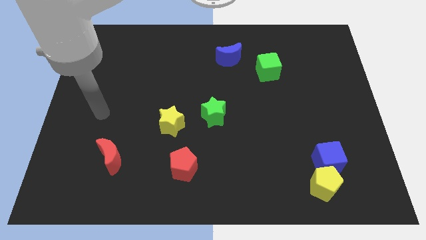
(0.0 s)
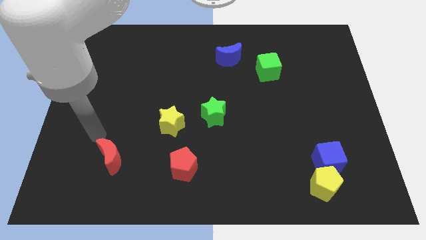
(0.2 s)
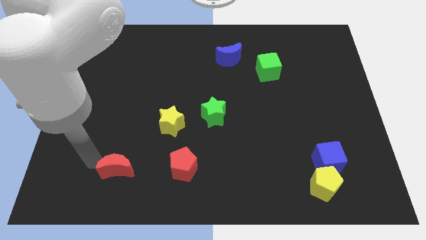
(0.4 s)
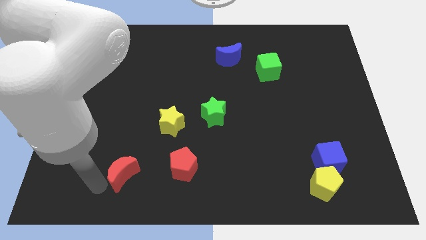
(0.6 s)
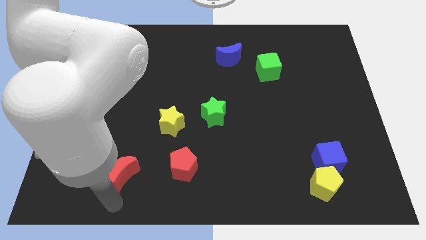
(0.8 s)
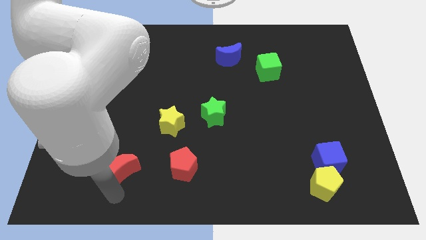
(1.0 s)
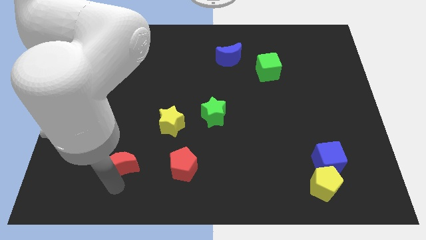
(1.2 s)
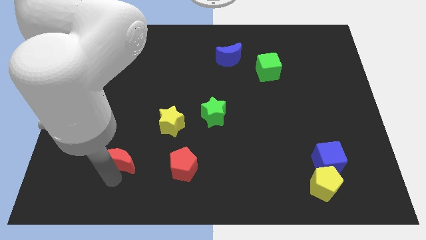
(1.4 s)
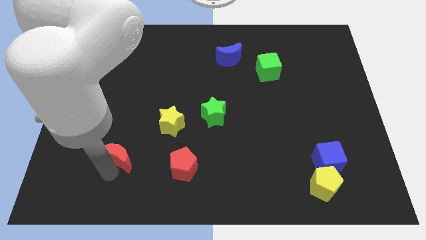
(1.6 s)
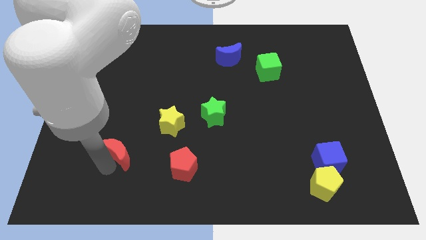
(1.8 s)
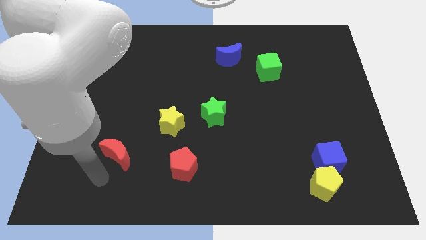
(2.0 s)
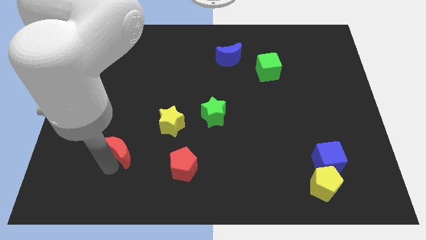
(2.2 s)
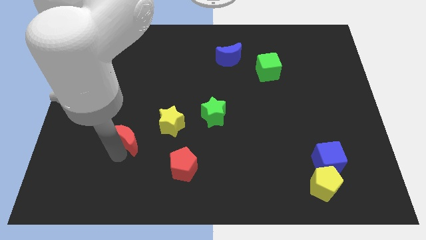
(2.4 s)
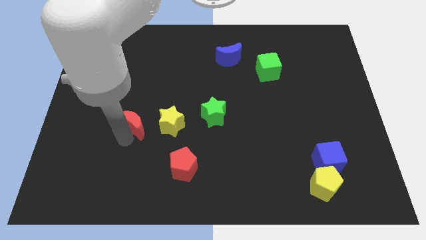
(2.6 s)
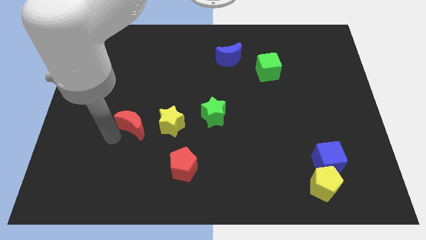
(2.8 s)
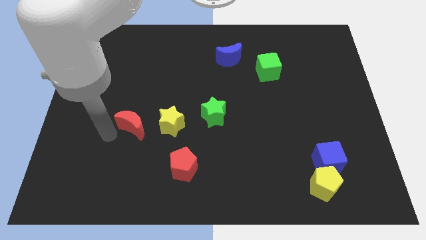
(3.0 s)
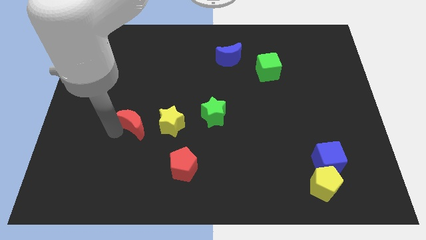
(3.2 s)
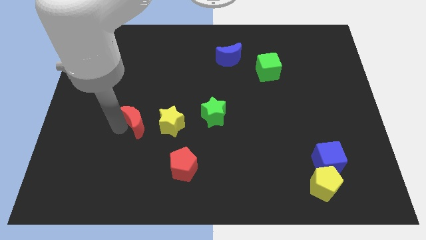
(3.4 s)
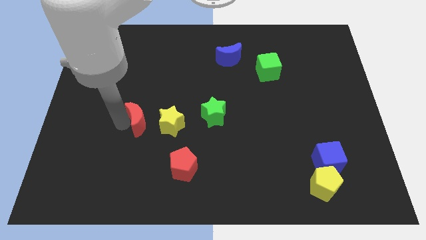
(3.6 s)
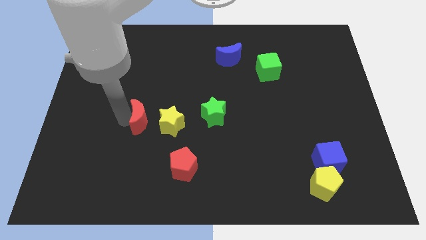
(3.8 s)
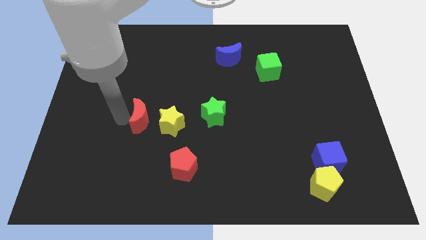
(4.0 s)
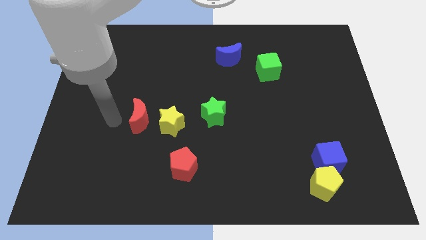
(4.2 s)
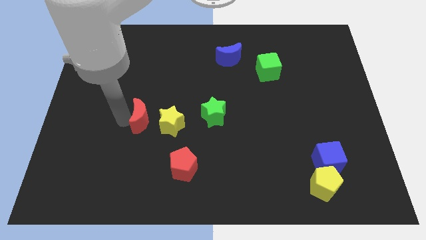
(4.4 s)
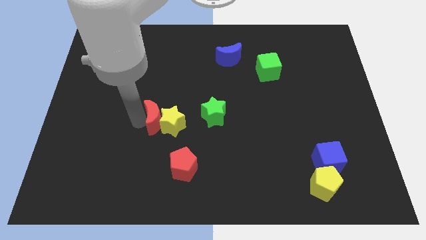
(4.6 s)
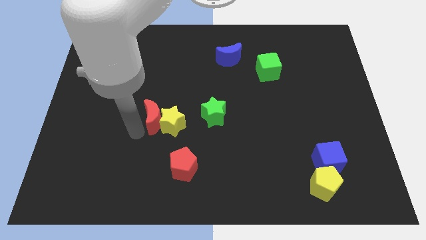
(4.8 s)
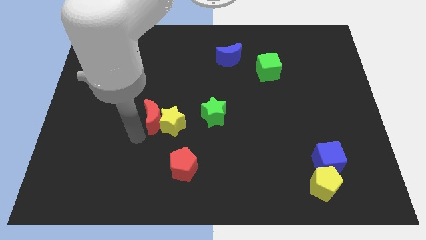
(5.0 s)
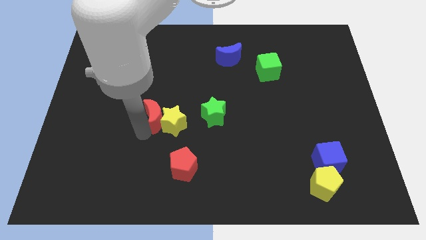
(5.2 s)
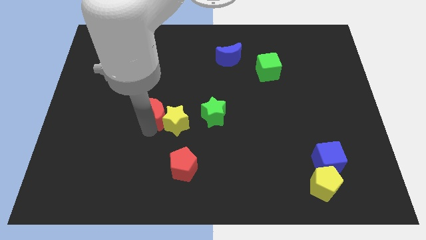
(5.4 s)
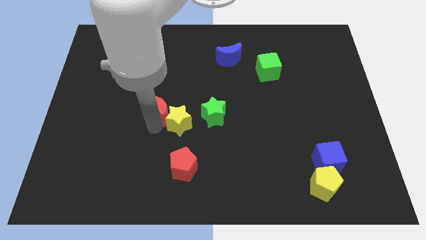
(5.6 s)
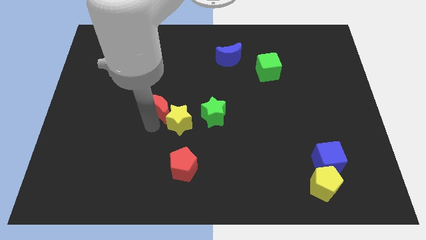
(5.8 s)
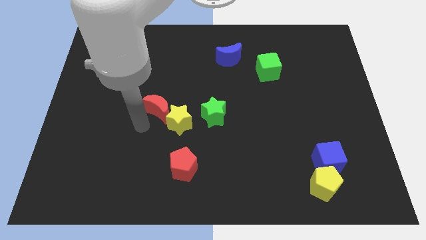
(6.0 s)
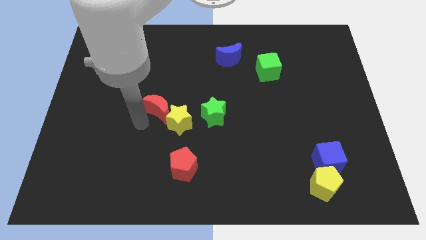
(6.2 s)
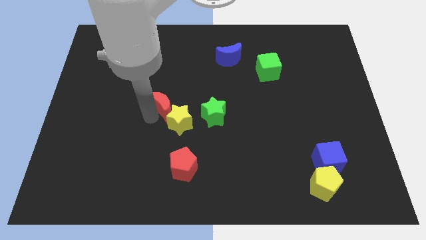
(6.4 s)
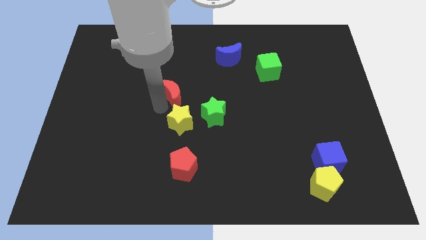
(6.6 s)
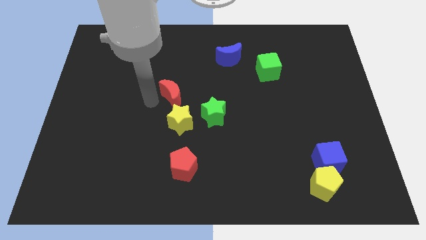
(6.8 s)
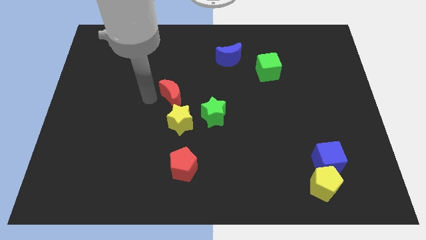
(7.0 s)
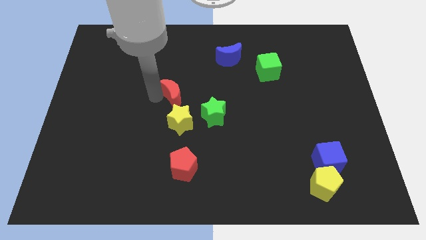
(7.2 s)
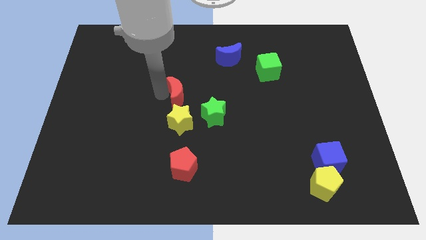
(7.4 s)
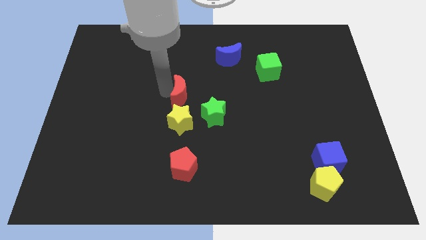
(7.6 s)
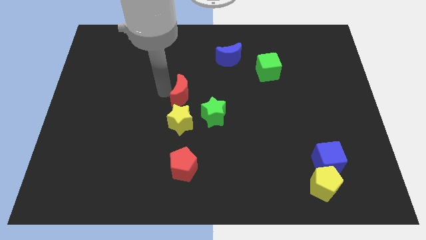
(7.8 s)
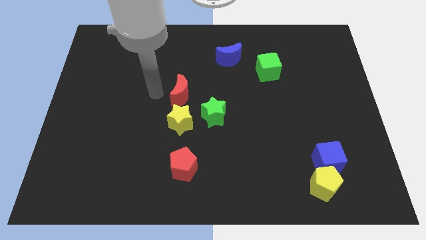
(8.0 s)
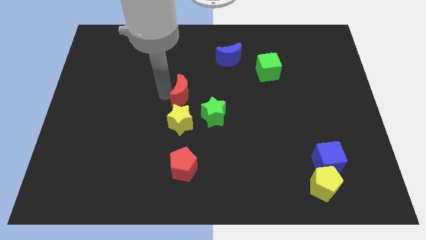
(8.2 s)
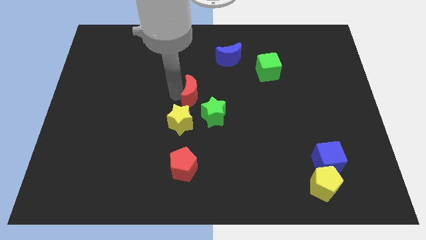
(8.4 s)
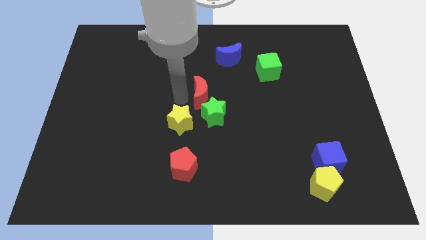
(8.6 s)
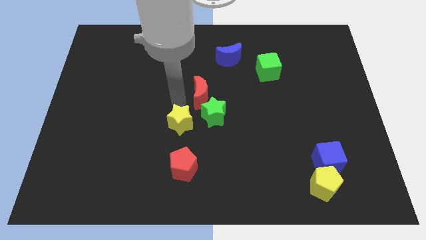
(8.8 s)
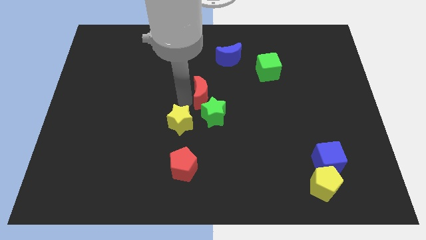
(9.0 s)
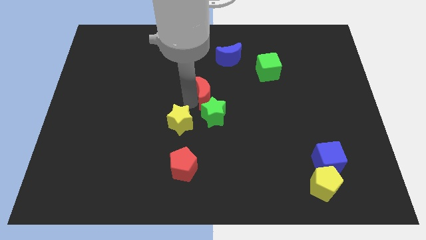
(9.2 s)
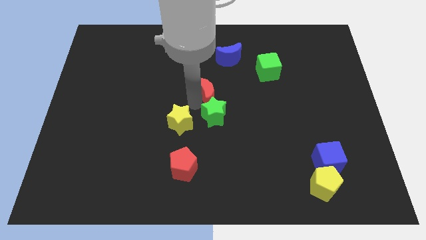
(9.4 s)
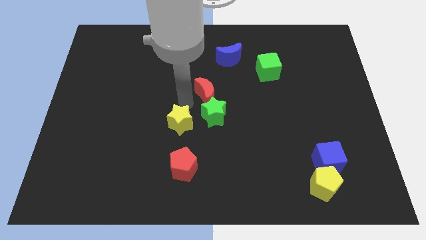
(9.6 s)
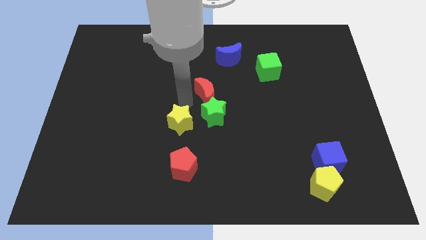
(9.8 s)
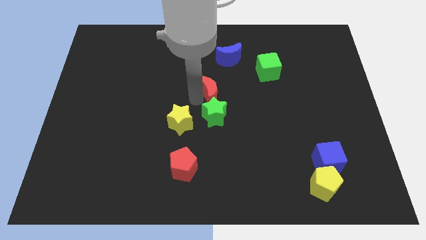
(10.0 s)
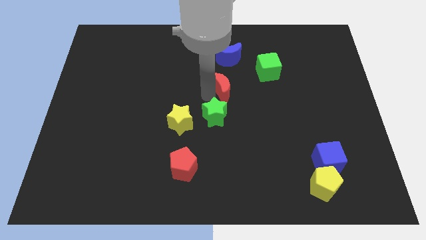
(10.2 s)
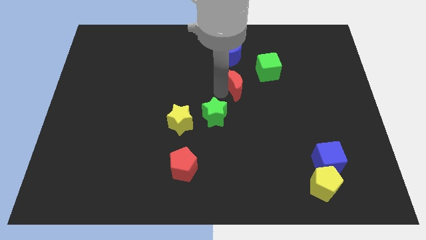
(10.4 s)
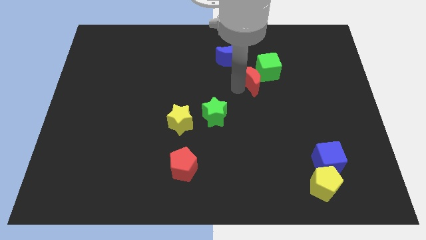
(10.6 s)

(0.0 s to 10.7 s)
move the red moon to the green cube

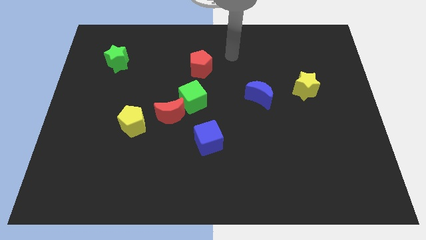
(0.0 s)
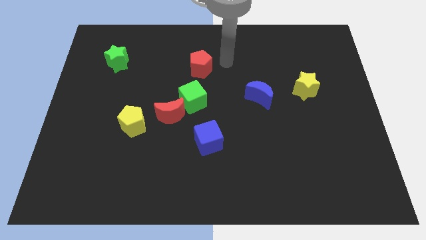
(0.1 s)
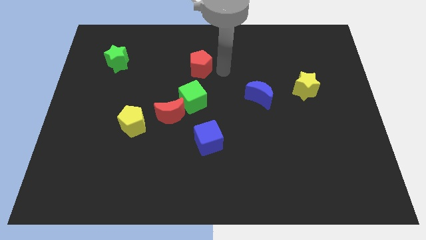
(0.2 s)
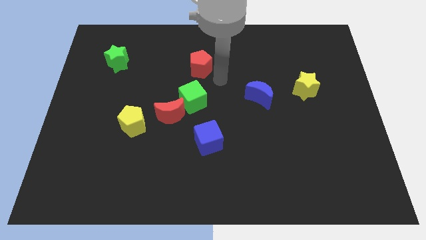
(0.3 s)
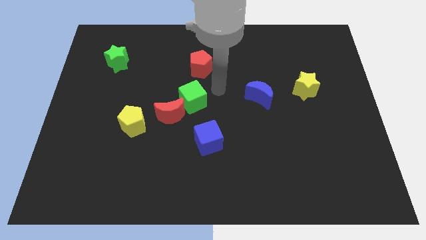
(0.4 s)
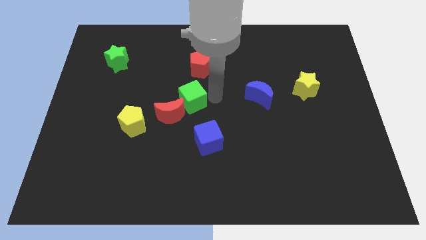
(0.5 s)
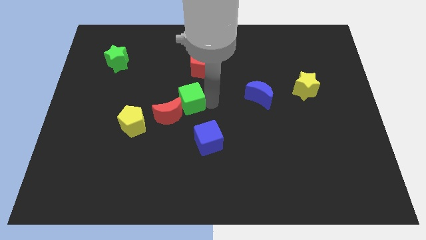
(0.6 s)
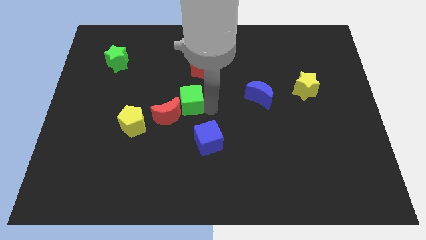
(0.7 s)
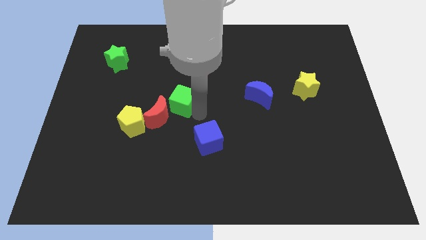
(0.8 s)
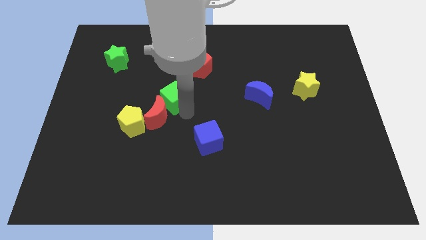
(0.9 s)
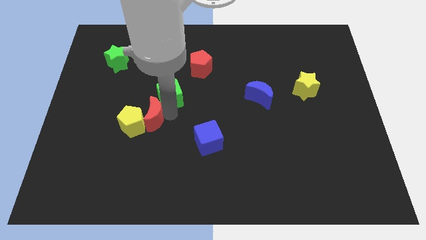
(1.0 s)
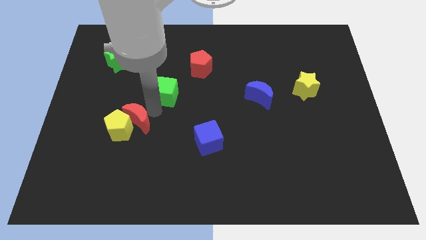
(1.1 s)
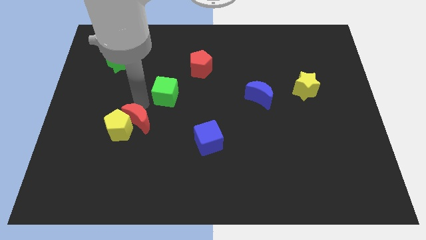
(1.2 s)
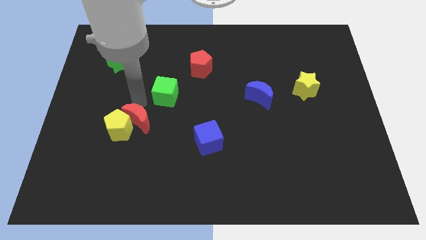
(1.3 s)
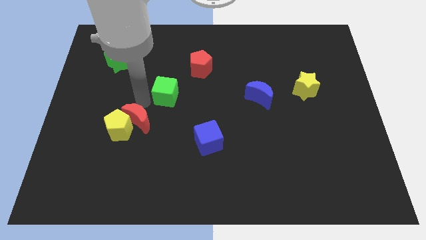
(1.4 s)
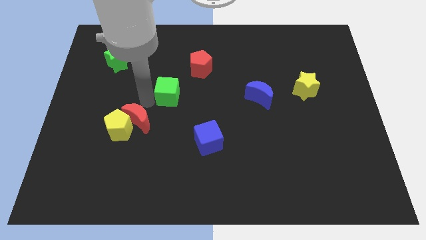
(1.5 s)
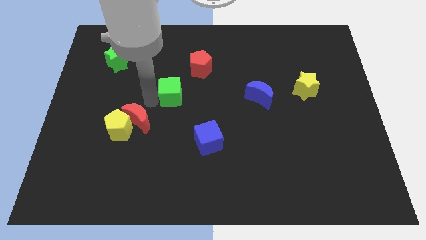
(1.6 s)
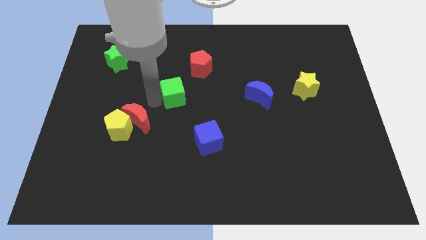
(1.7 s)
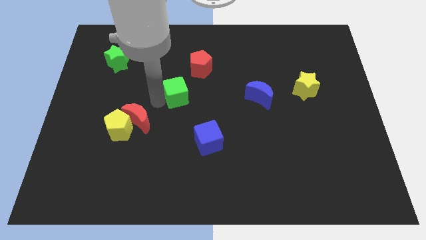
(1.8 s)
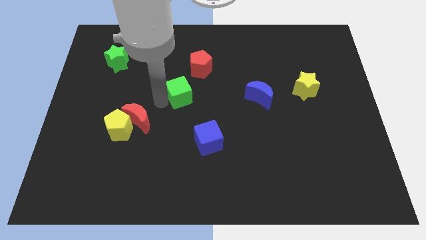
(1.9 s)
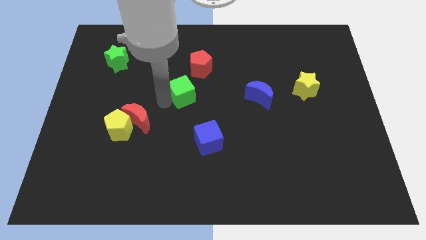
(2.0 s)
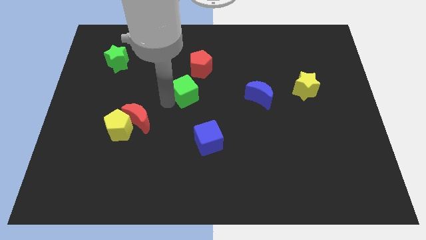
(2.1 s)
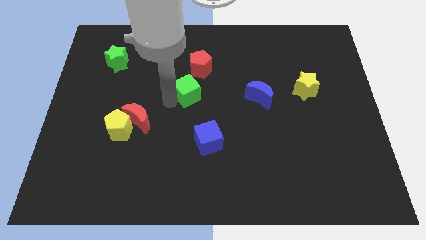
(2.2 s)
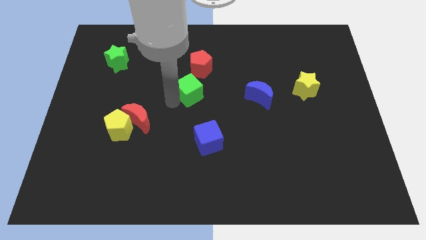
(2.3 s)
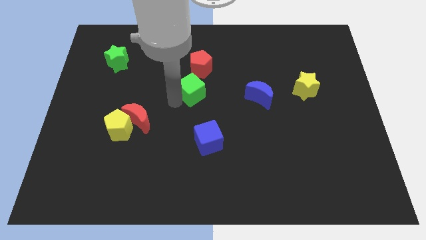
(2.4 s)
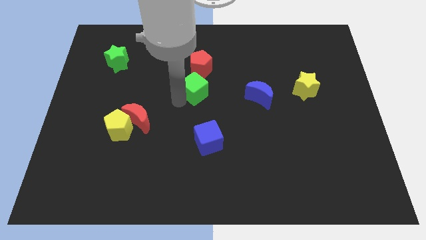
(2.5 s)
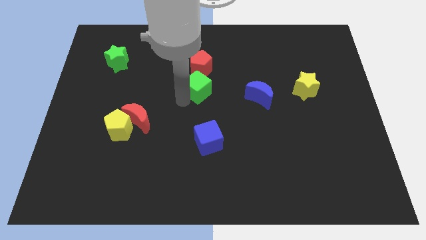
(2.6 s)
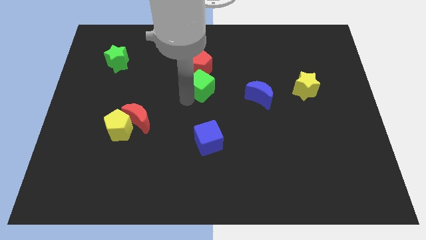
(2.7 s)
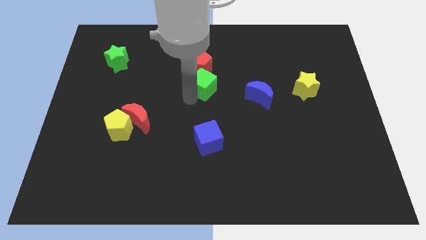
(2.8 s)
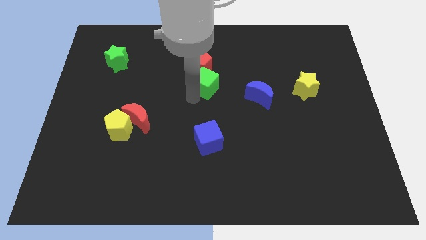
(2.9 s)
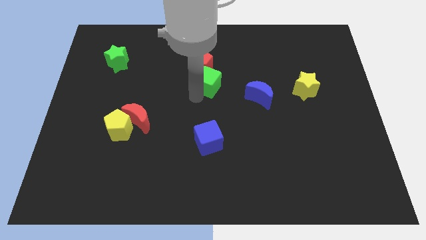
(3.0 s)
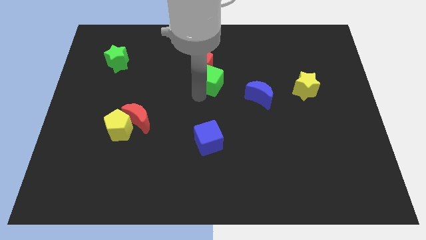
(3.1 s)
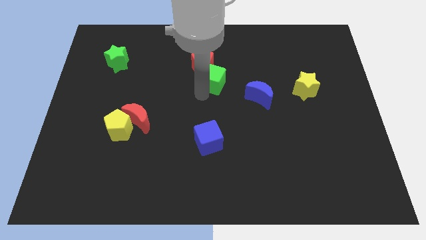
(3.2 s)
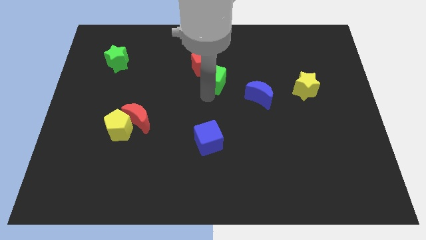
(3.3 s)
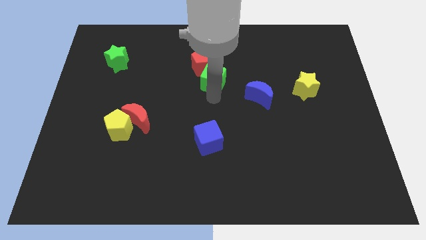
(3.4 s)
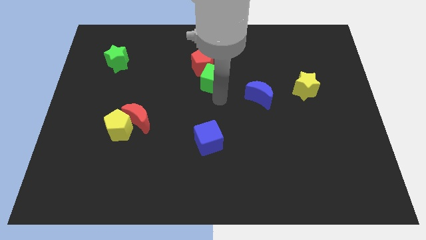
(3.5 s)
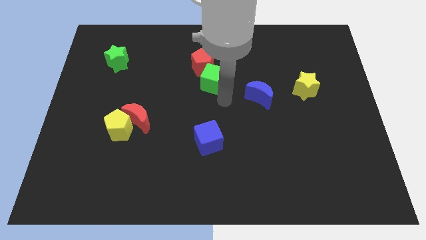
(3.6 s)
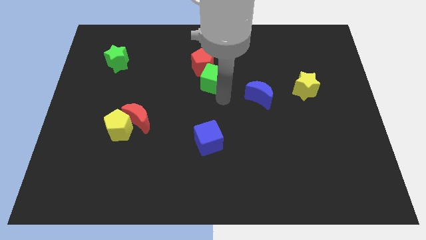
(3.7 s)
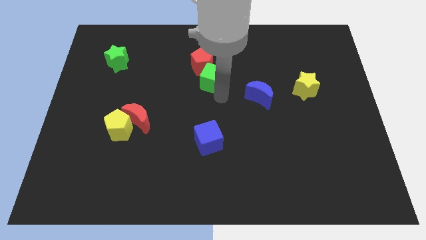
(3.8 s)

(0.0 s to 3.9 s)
move the green cube close to the red pentagon
